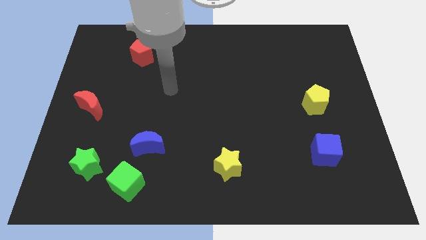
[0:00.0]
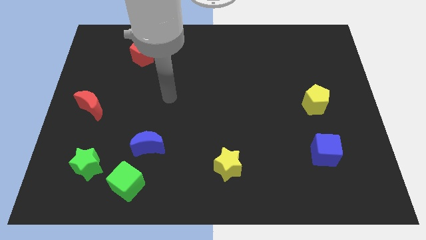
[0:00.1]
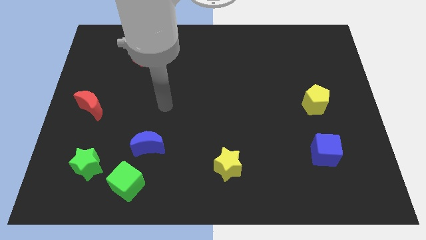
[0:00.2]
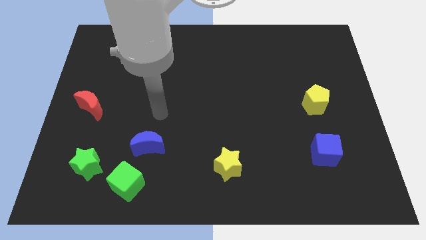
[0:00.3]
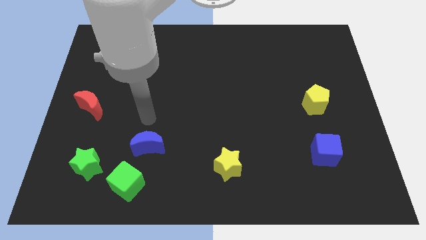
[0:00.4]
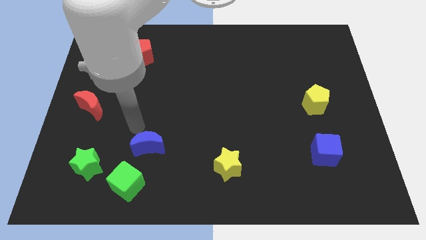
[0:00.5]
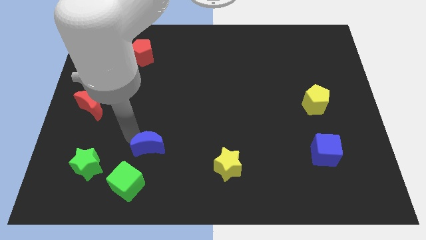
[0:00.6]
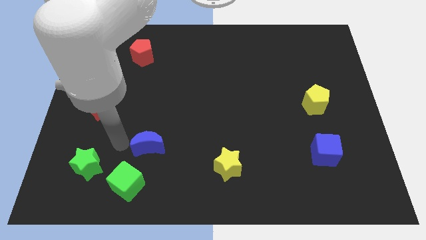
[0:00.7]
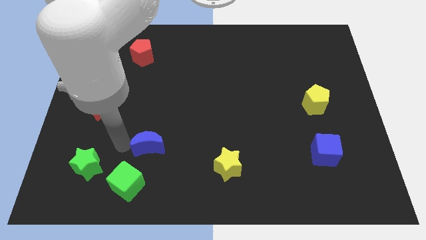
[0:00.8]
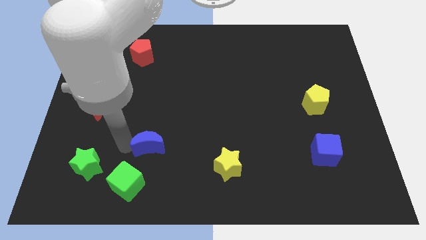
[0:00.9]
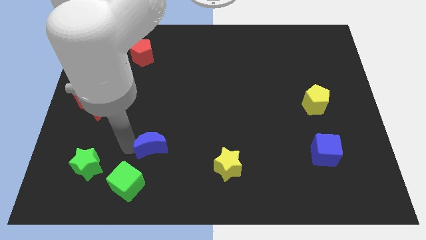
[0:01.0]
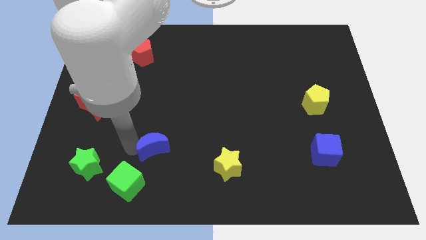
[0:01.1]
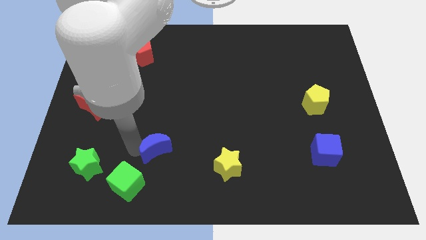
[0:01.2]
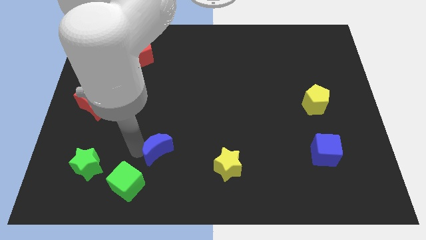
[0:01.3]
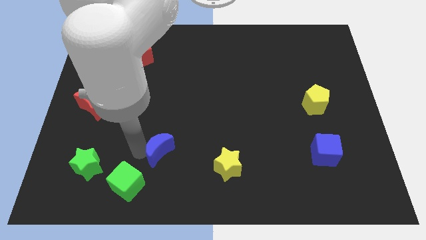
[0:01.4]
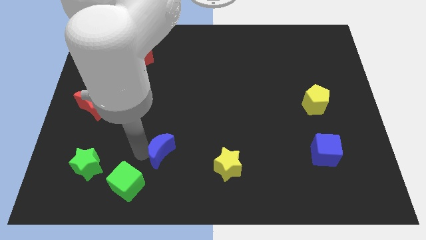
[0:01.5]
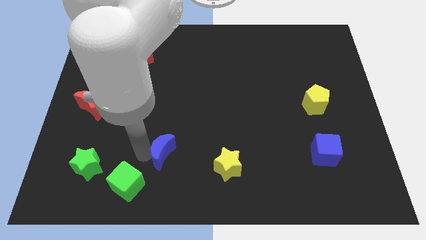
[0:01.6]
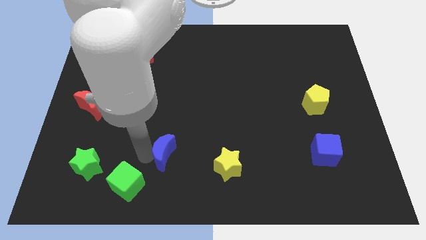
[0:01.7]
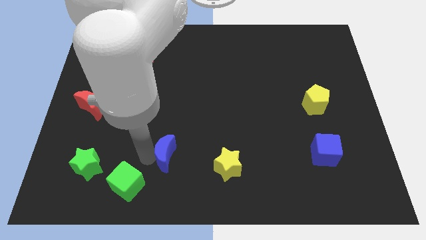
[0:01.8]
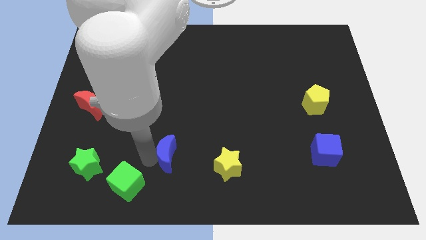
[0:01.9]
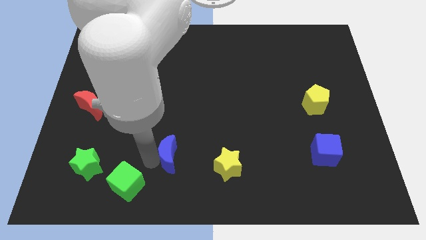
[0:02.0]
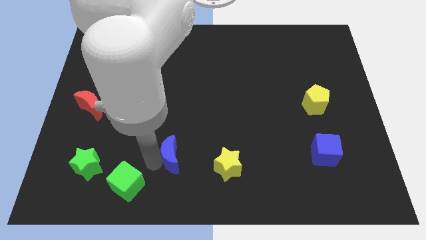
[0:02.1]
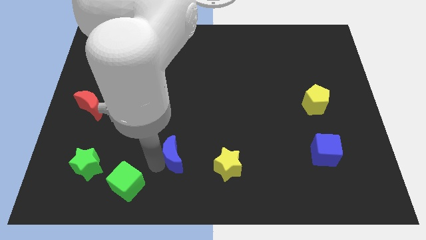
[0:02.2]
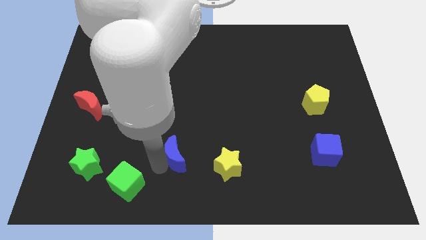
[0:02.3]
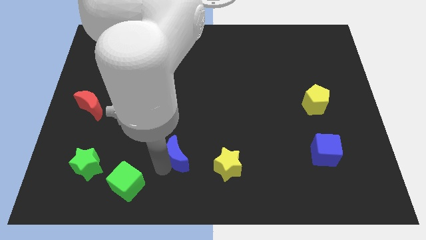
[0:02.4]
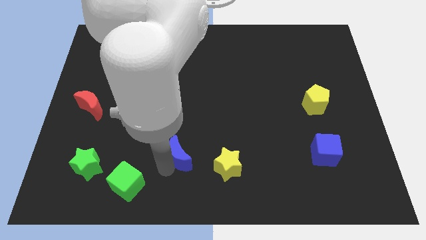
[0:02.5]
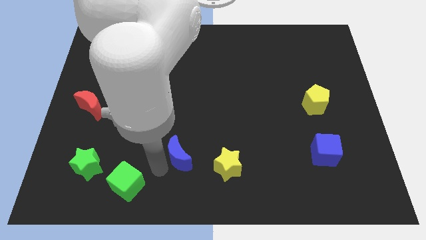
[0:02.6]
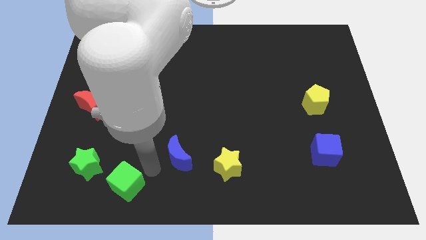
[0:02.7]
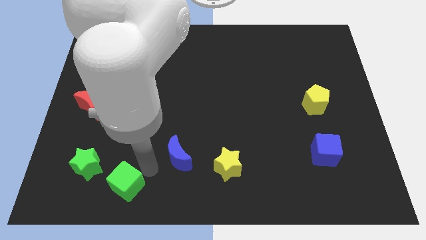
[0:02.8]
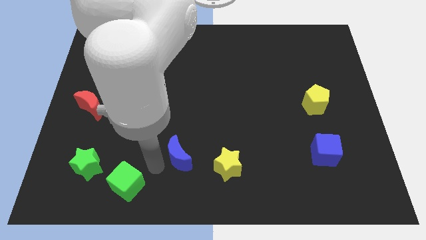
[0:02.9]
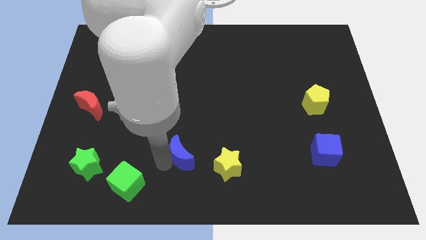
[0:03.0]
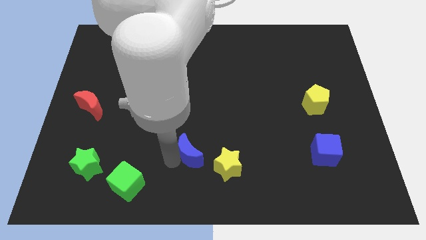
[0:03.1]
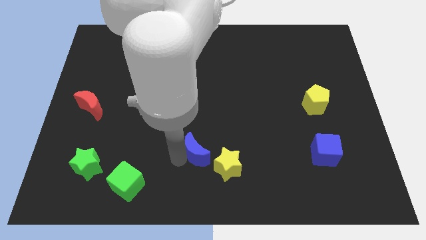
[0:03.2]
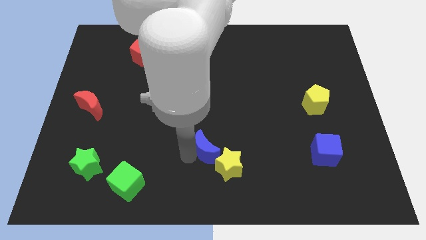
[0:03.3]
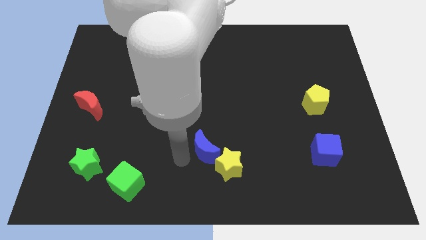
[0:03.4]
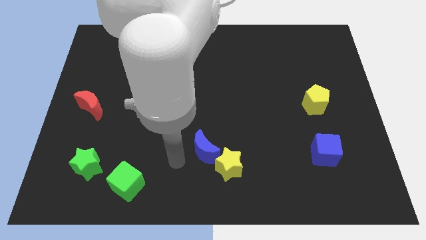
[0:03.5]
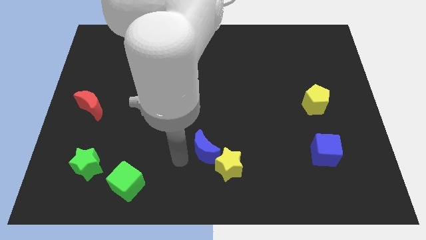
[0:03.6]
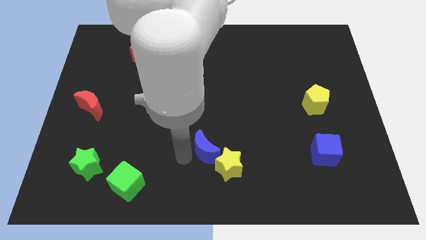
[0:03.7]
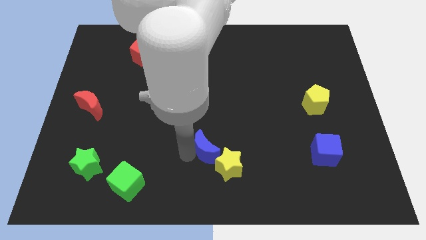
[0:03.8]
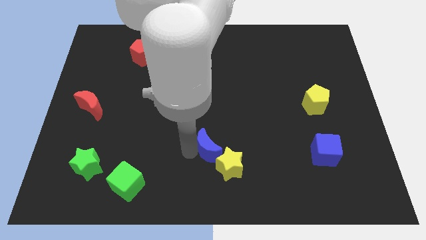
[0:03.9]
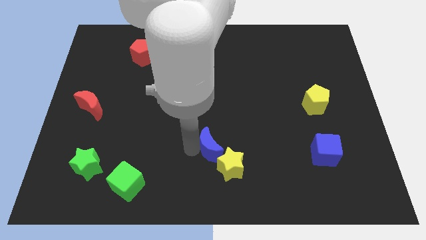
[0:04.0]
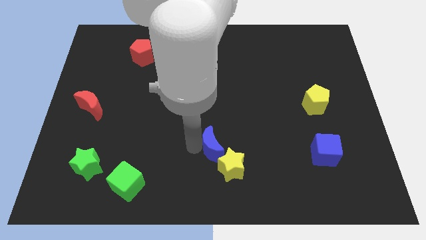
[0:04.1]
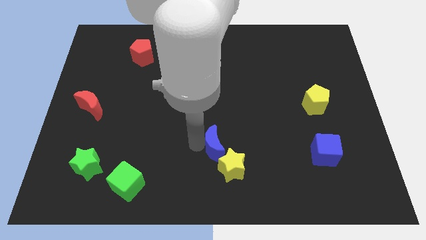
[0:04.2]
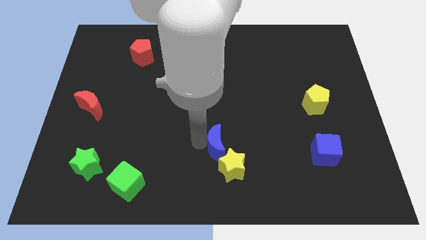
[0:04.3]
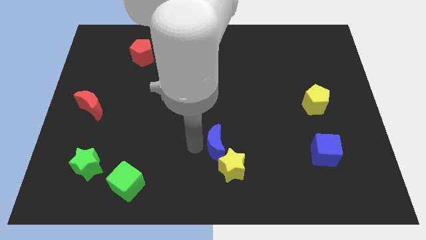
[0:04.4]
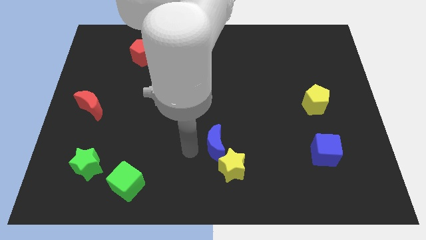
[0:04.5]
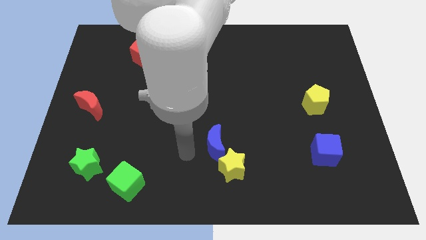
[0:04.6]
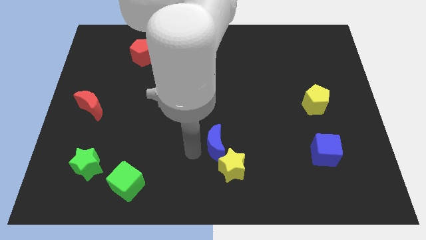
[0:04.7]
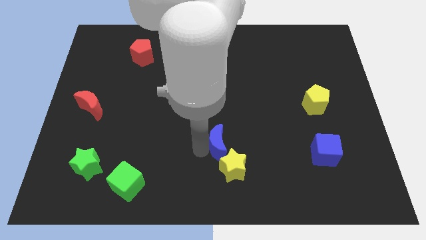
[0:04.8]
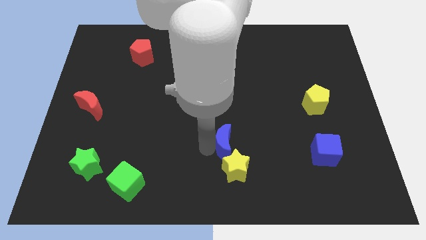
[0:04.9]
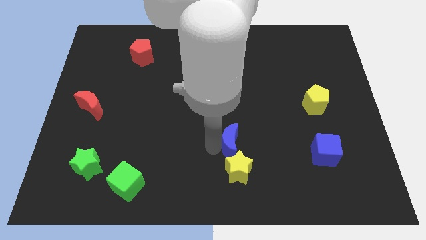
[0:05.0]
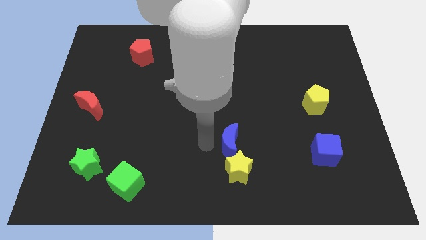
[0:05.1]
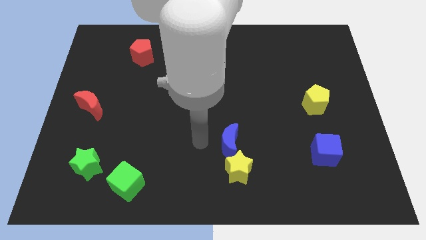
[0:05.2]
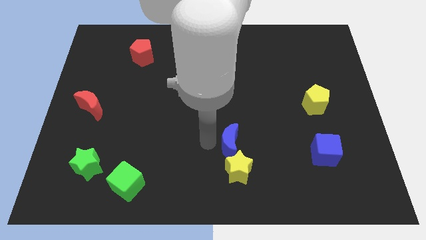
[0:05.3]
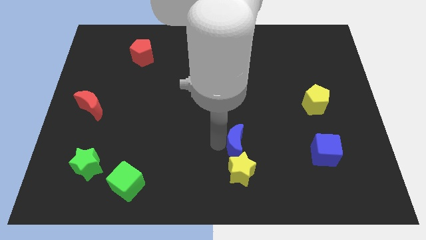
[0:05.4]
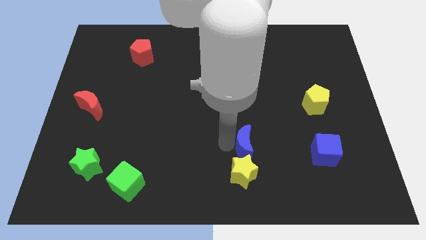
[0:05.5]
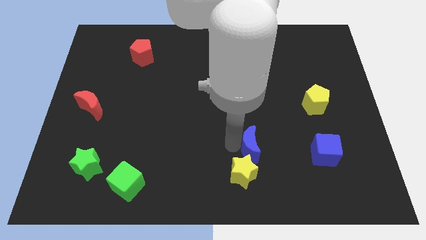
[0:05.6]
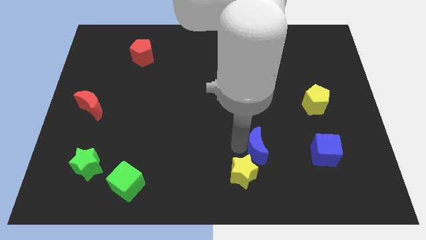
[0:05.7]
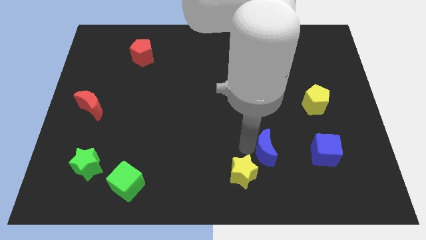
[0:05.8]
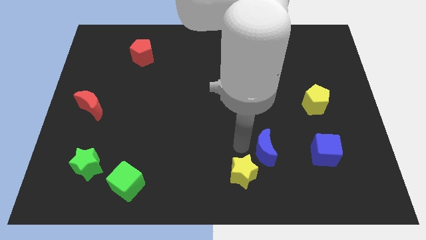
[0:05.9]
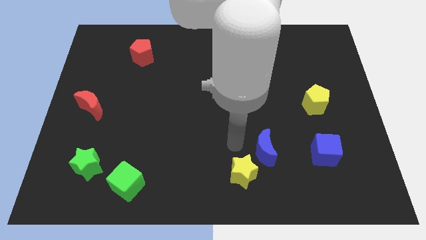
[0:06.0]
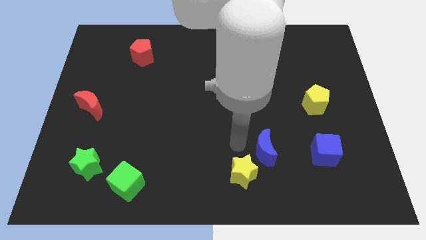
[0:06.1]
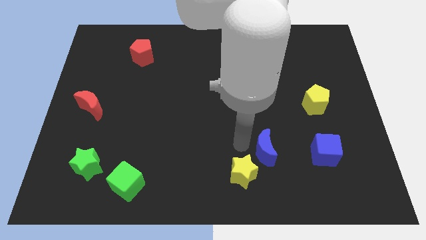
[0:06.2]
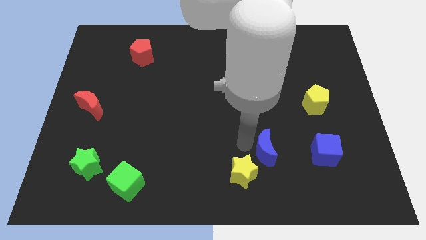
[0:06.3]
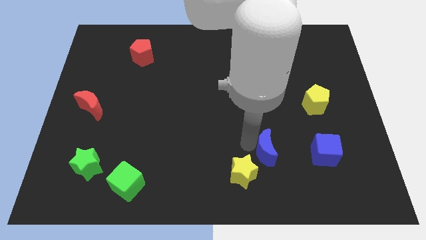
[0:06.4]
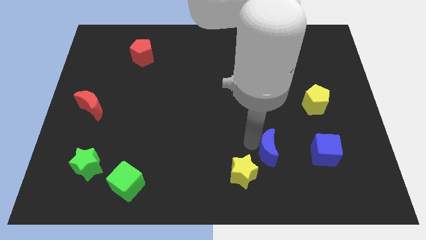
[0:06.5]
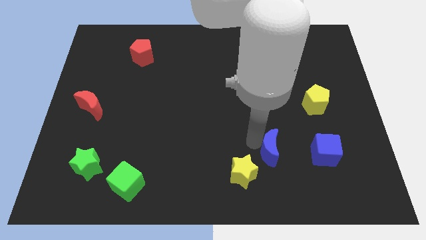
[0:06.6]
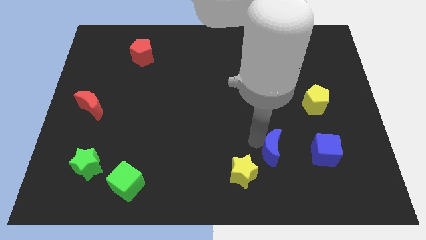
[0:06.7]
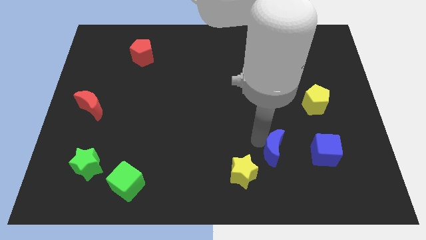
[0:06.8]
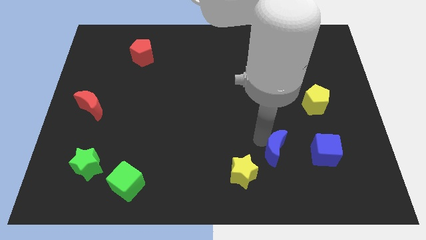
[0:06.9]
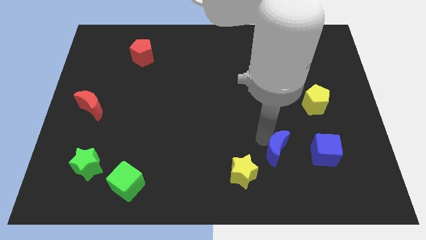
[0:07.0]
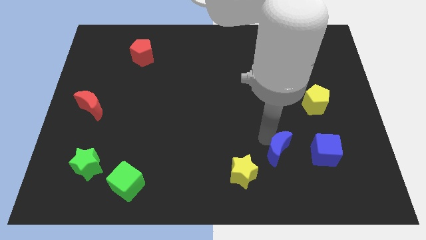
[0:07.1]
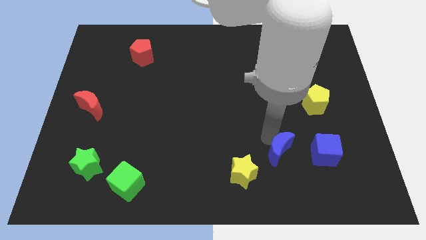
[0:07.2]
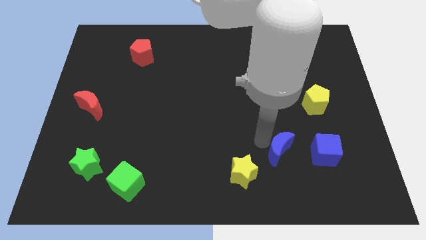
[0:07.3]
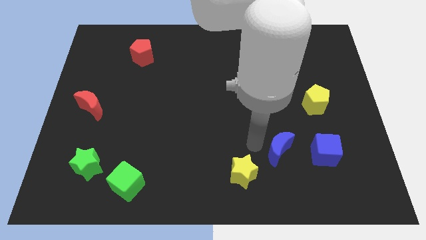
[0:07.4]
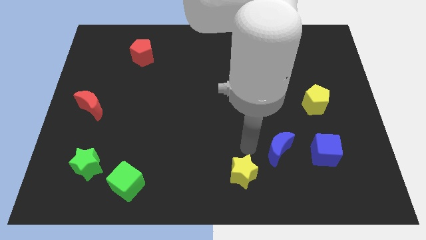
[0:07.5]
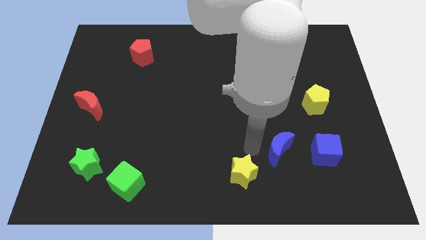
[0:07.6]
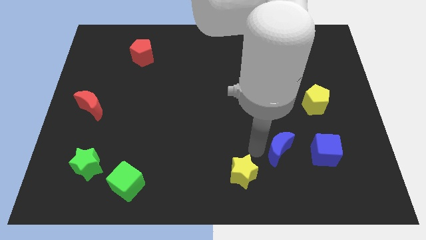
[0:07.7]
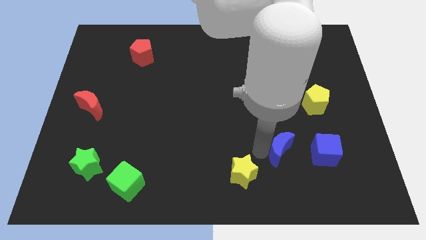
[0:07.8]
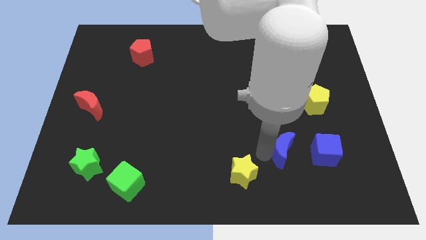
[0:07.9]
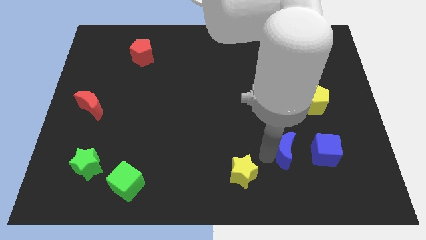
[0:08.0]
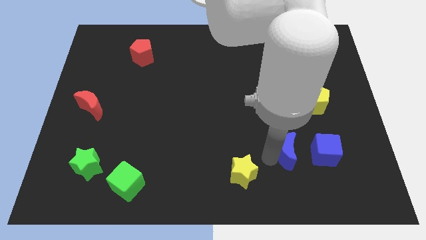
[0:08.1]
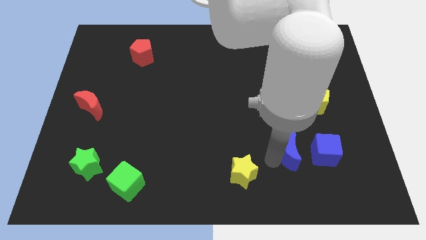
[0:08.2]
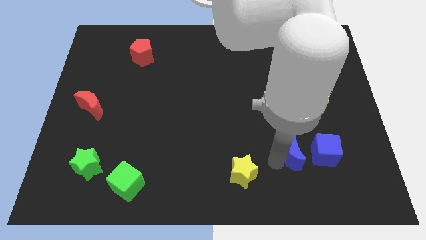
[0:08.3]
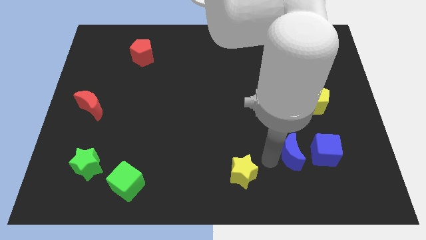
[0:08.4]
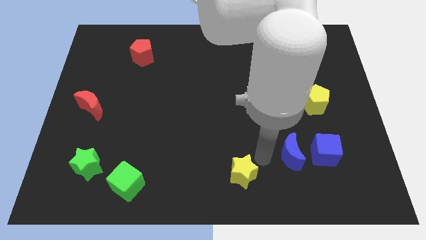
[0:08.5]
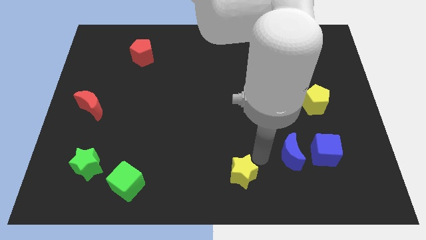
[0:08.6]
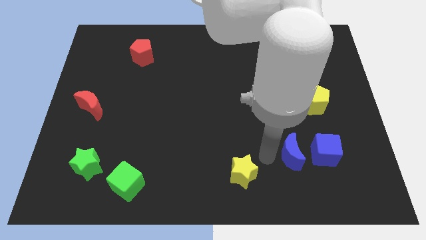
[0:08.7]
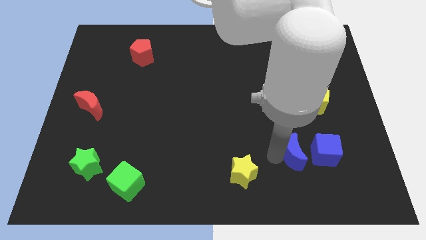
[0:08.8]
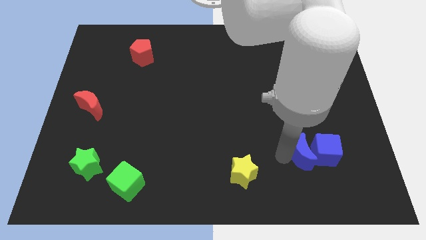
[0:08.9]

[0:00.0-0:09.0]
move the blue moon towards the blue cube
